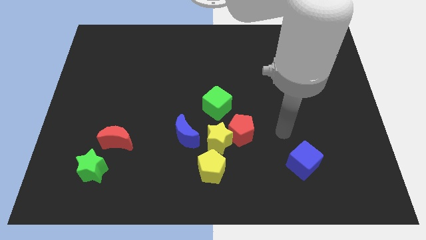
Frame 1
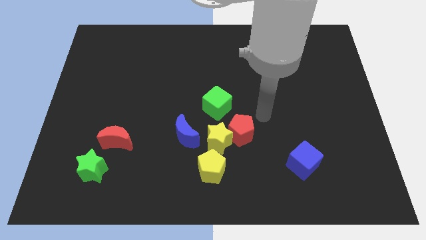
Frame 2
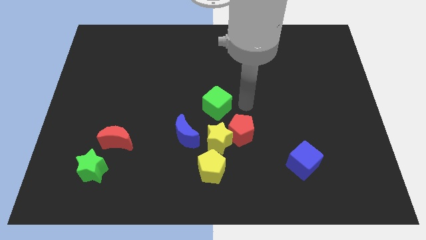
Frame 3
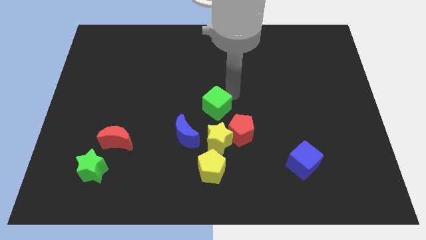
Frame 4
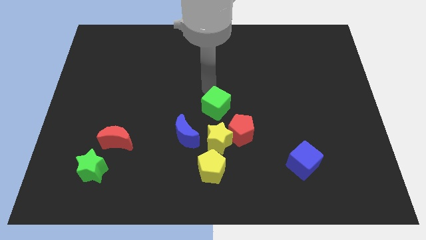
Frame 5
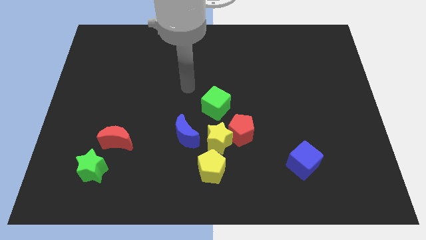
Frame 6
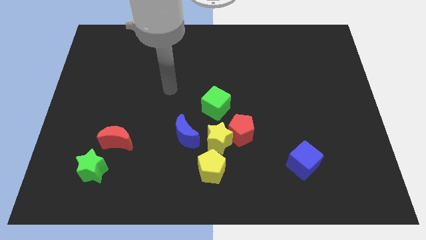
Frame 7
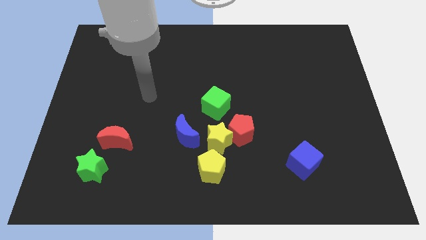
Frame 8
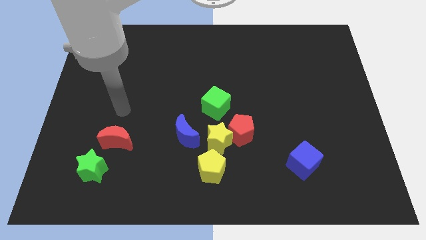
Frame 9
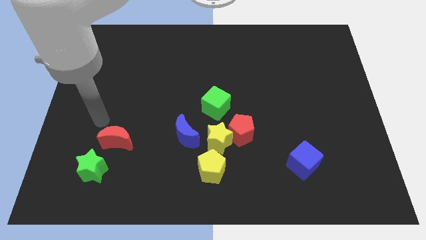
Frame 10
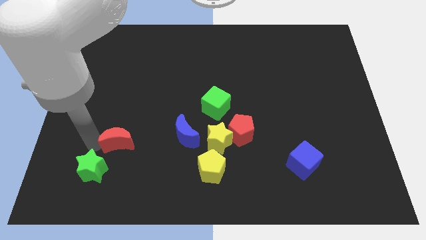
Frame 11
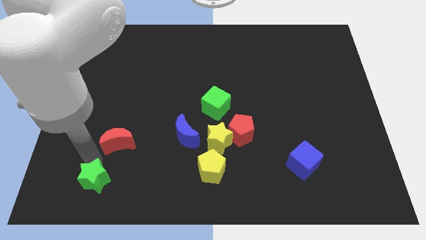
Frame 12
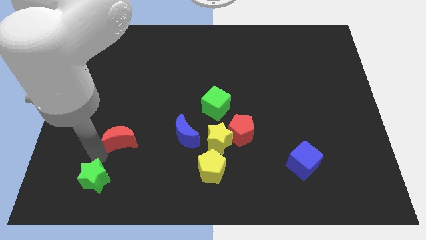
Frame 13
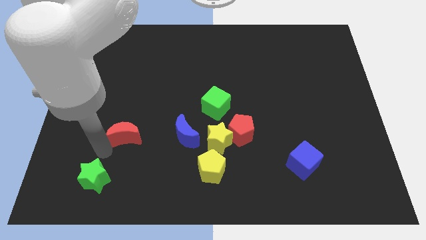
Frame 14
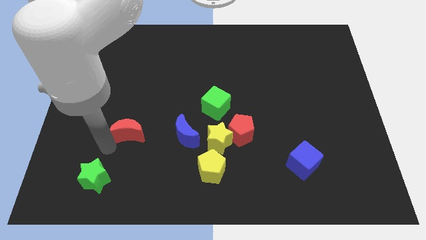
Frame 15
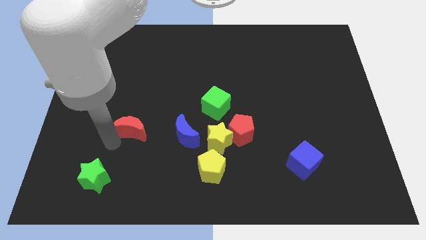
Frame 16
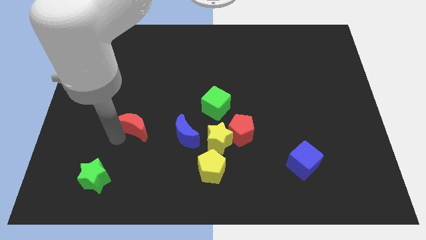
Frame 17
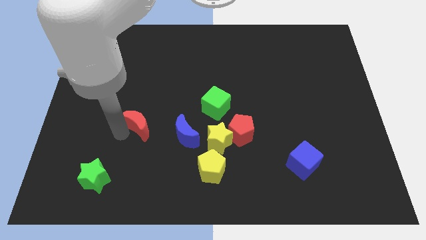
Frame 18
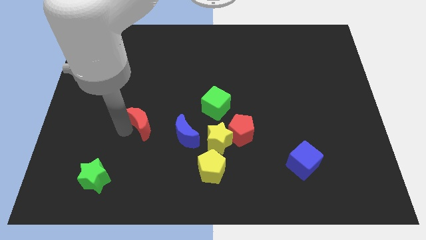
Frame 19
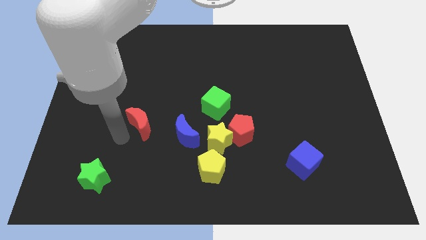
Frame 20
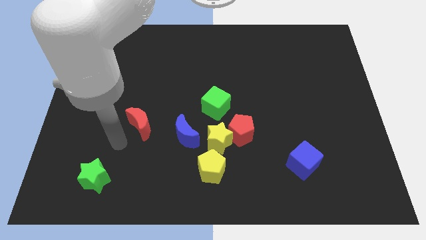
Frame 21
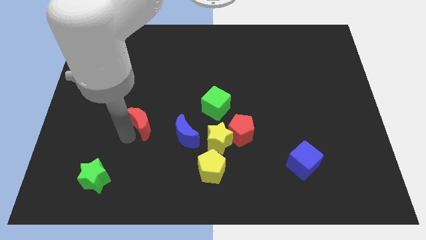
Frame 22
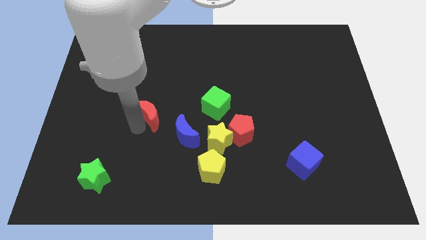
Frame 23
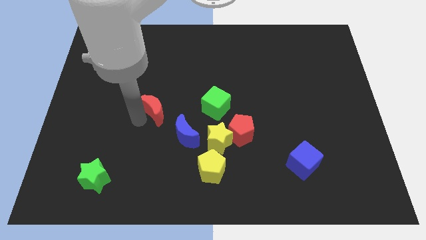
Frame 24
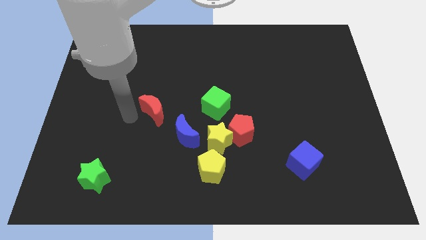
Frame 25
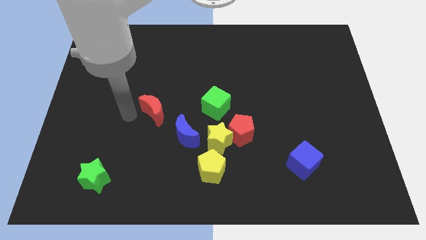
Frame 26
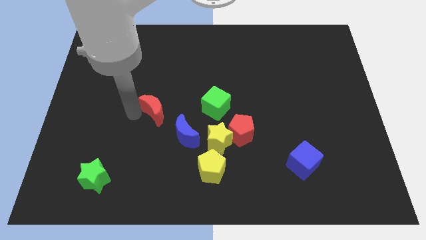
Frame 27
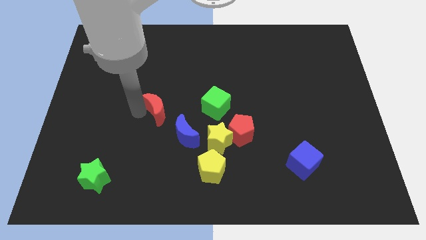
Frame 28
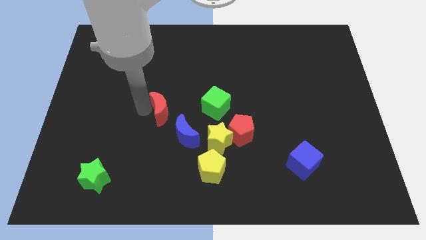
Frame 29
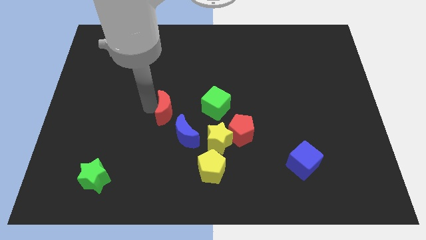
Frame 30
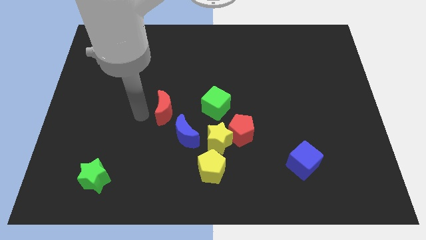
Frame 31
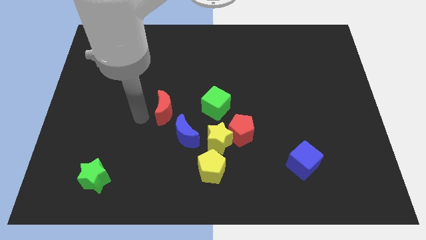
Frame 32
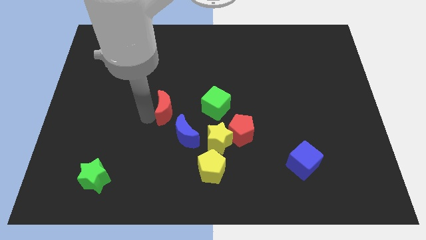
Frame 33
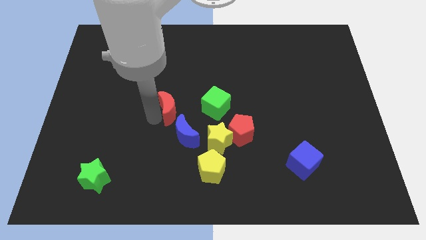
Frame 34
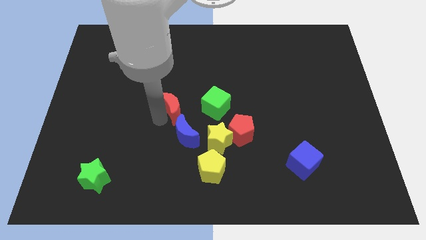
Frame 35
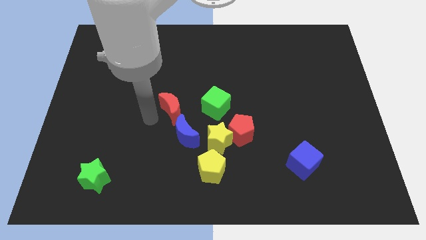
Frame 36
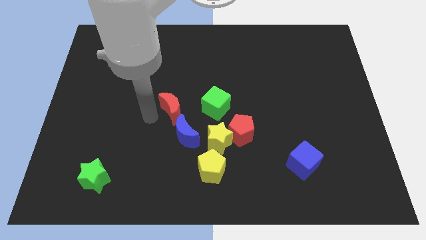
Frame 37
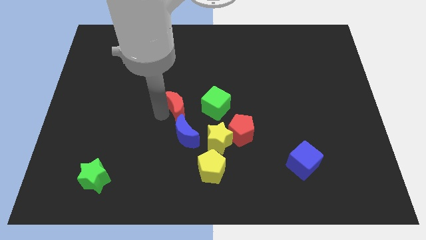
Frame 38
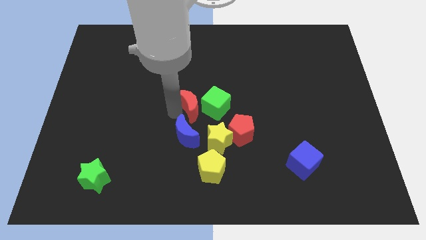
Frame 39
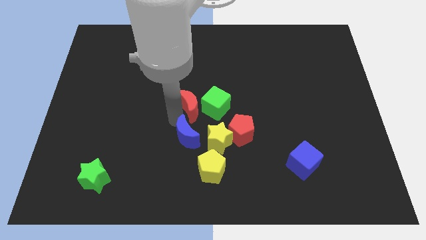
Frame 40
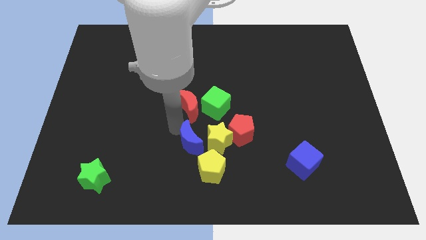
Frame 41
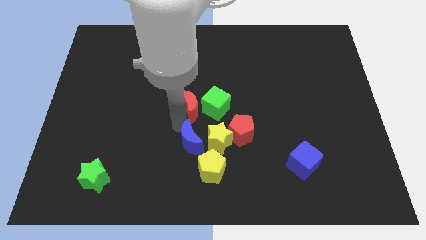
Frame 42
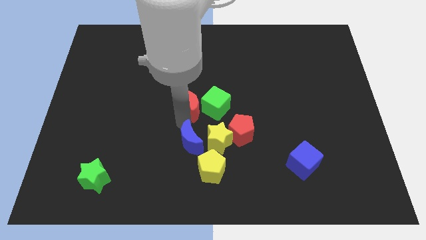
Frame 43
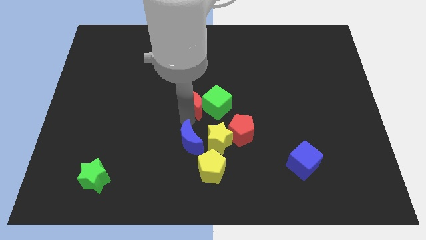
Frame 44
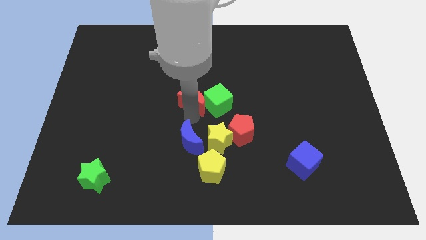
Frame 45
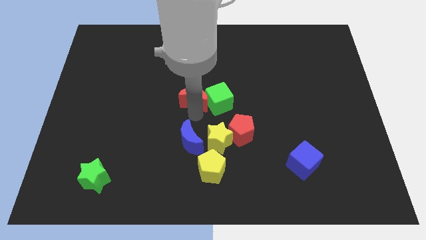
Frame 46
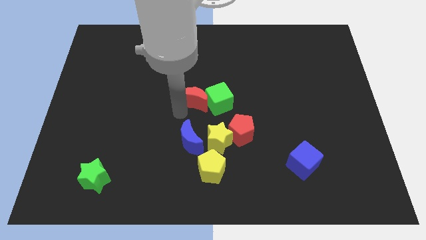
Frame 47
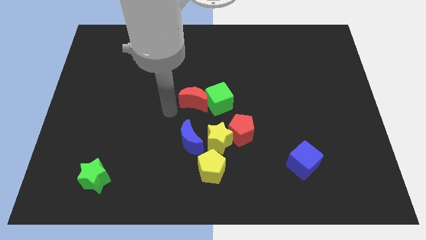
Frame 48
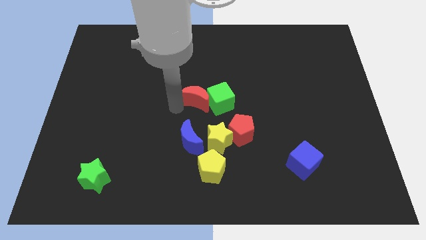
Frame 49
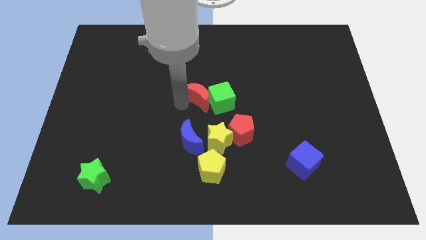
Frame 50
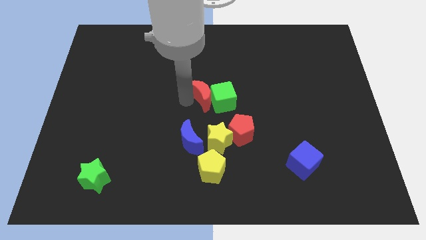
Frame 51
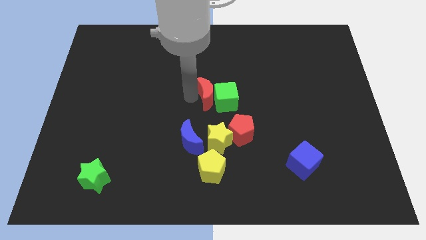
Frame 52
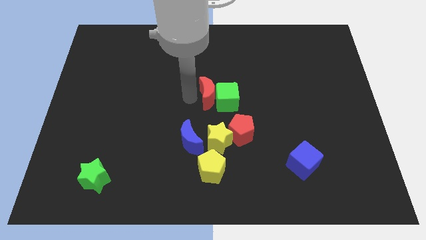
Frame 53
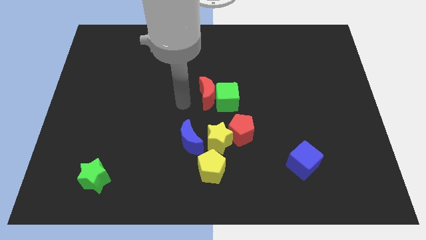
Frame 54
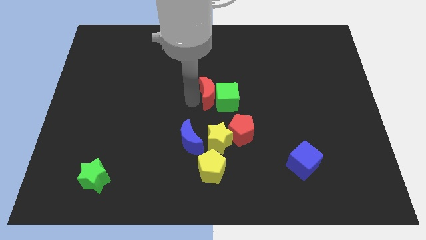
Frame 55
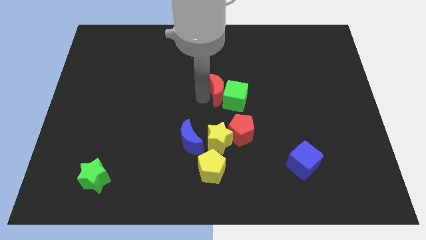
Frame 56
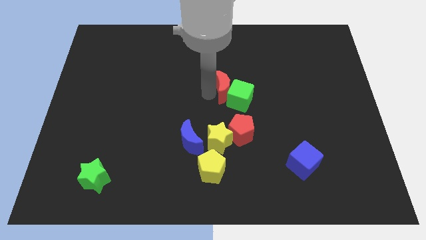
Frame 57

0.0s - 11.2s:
move the red moon to the top of the red pentagon
